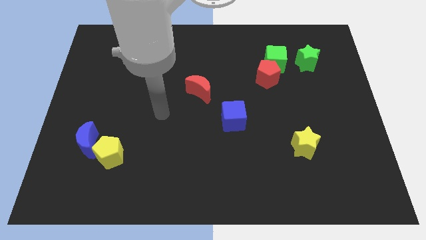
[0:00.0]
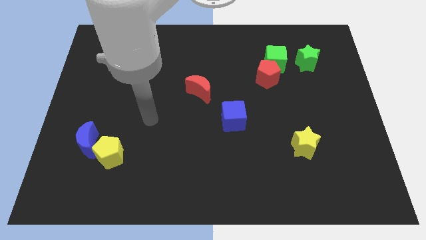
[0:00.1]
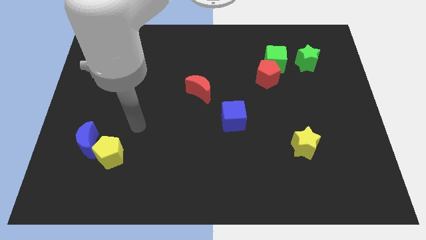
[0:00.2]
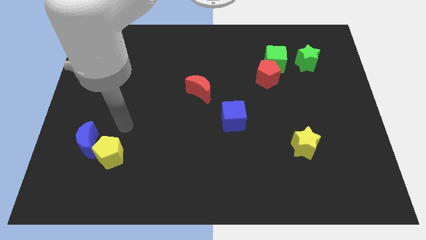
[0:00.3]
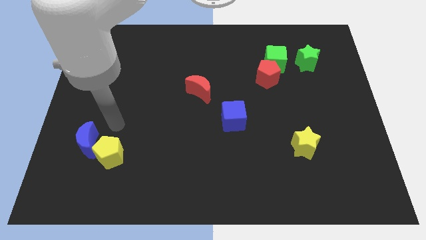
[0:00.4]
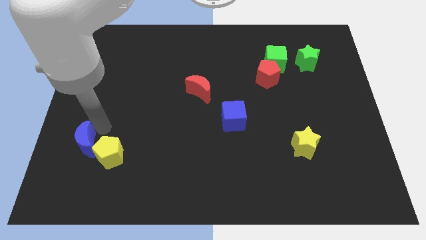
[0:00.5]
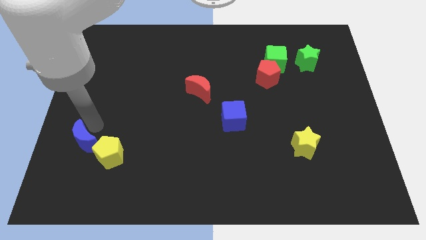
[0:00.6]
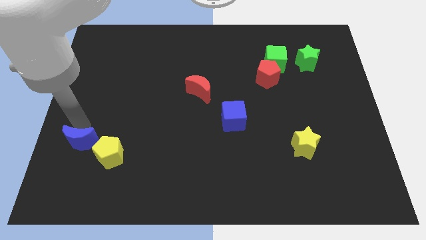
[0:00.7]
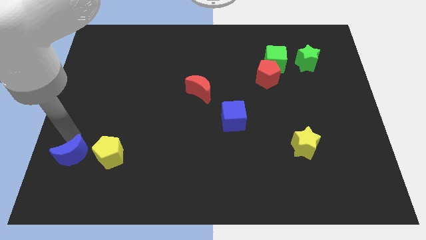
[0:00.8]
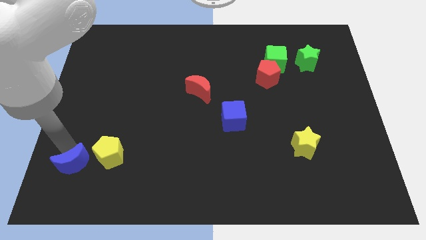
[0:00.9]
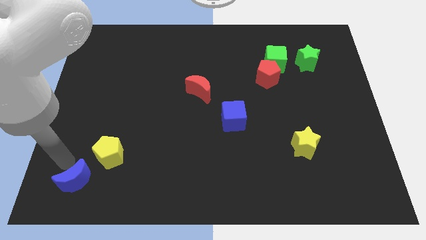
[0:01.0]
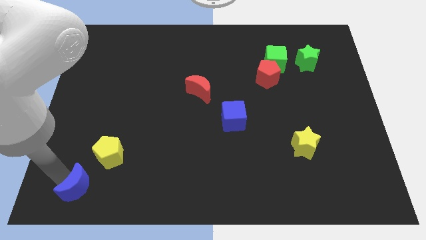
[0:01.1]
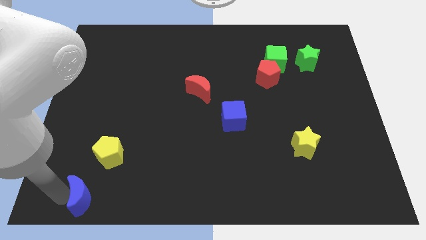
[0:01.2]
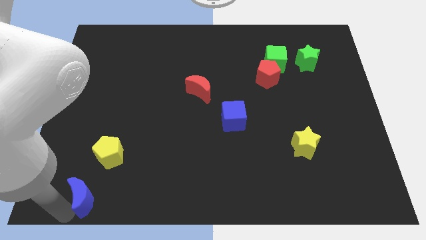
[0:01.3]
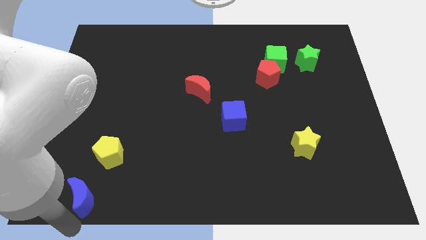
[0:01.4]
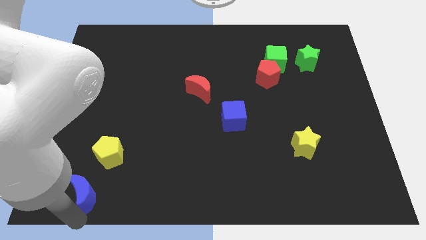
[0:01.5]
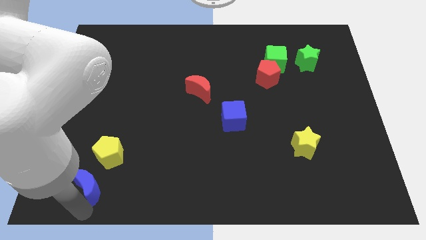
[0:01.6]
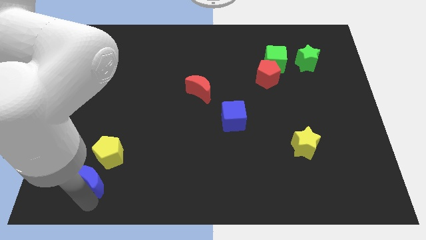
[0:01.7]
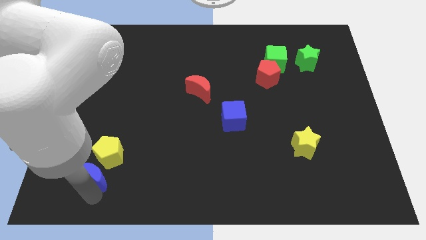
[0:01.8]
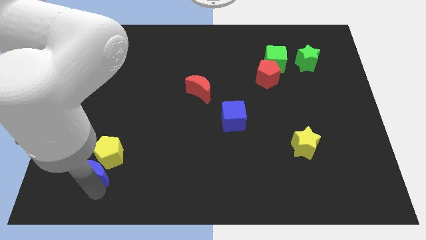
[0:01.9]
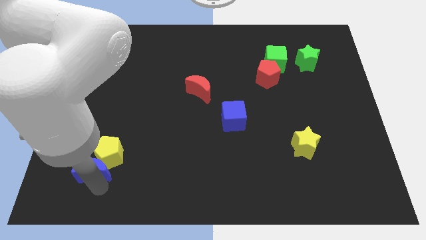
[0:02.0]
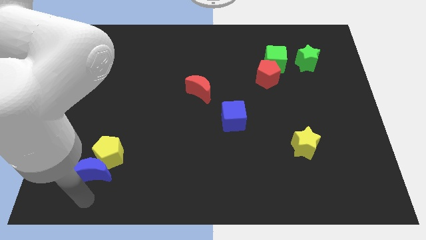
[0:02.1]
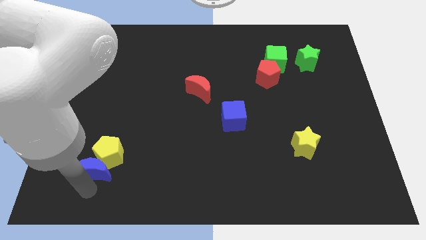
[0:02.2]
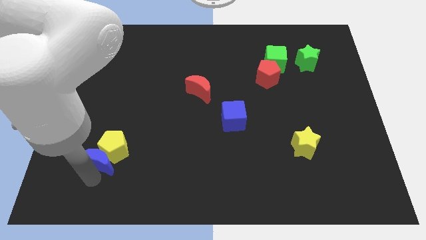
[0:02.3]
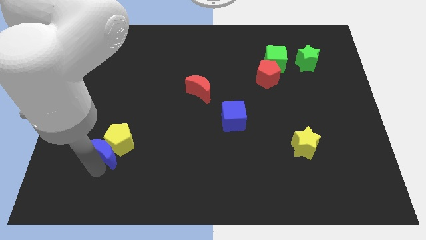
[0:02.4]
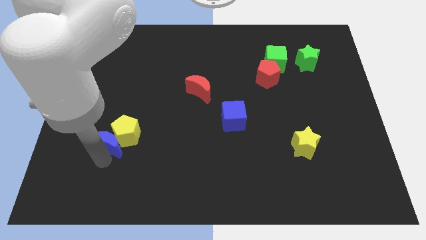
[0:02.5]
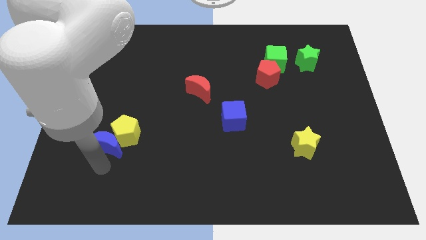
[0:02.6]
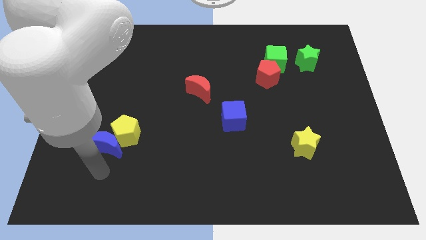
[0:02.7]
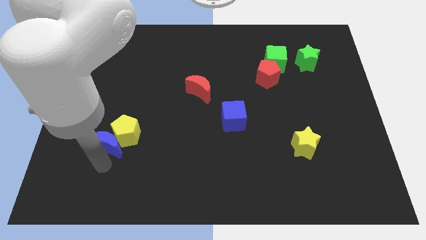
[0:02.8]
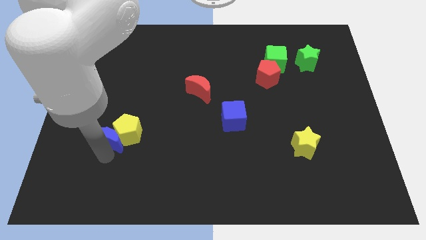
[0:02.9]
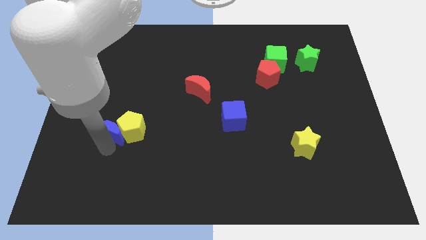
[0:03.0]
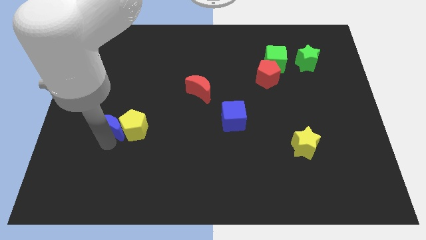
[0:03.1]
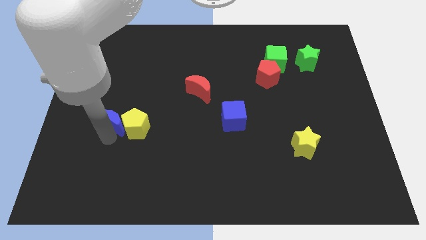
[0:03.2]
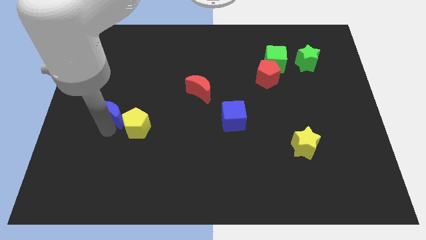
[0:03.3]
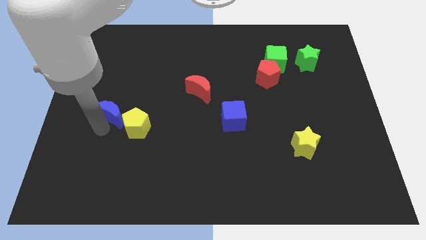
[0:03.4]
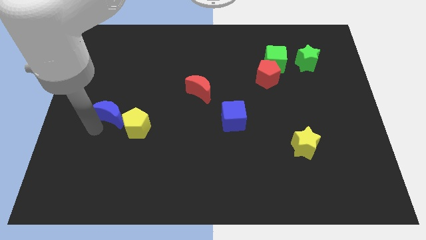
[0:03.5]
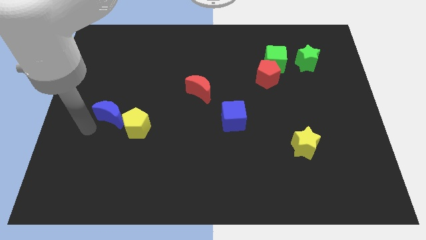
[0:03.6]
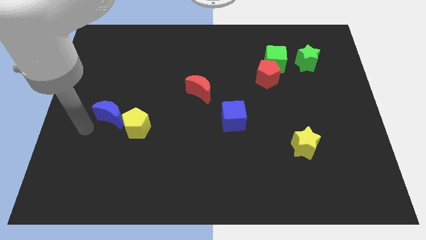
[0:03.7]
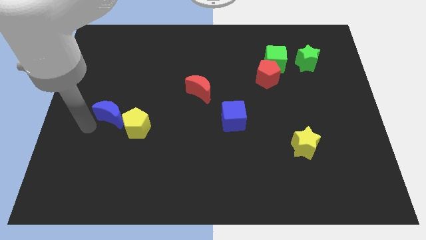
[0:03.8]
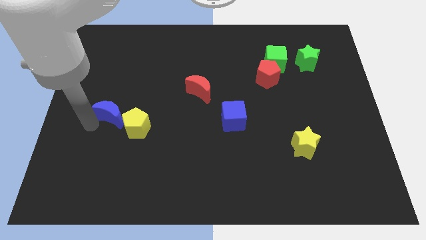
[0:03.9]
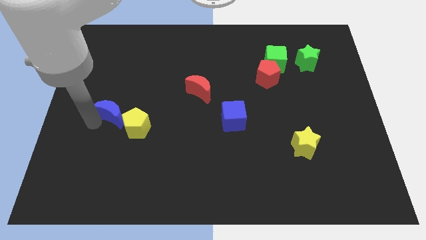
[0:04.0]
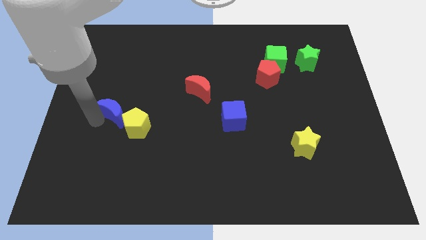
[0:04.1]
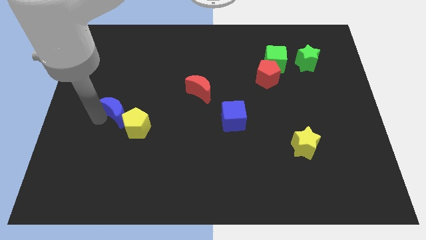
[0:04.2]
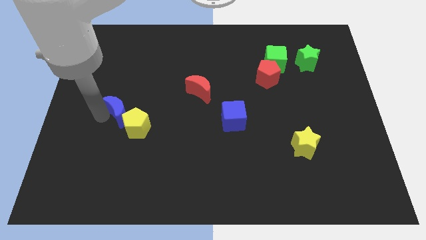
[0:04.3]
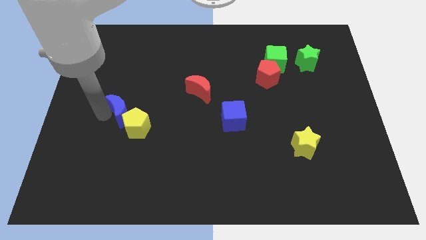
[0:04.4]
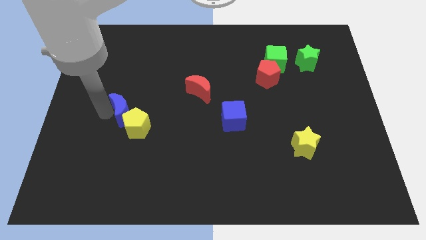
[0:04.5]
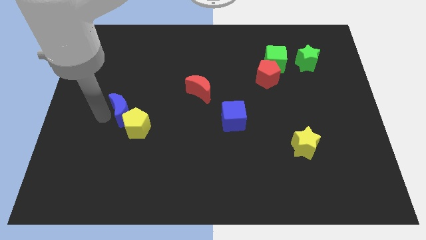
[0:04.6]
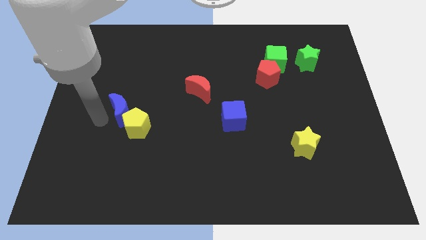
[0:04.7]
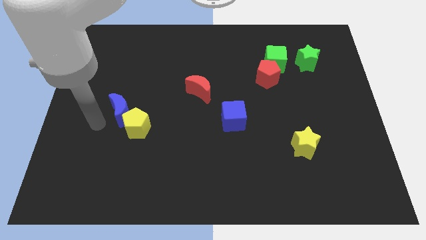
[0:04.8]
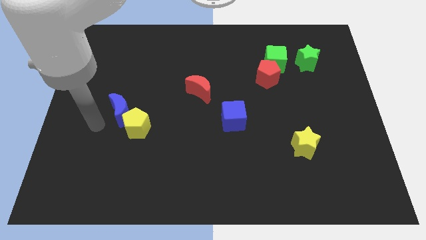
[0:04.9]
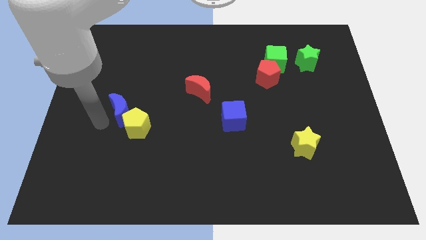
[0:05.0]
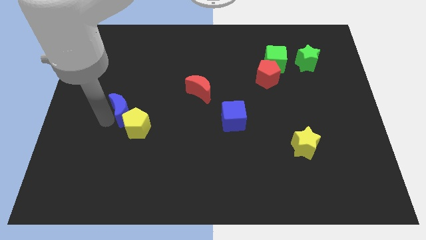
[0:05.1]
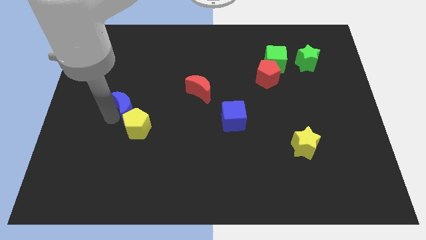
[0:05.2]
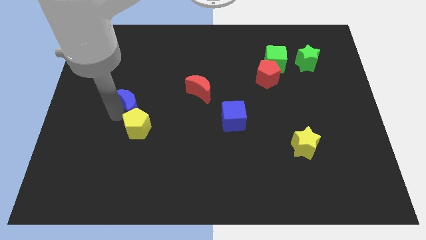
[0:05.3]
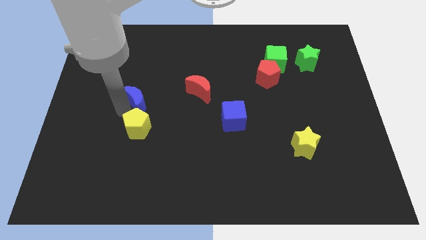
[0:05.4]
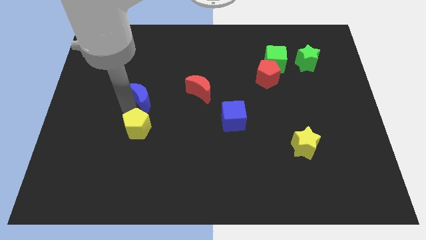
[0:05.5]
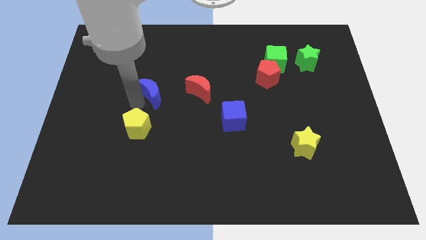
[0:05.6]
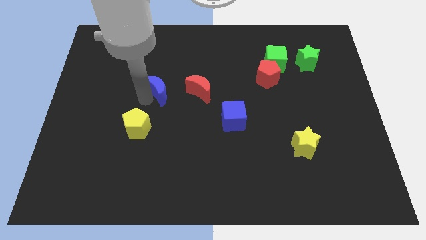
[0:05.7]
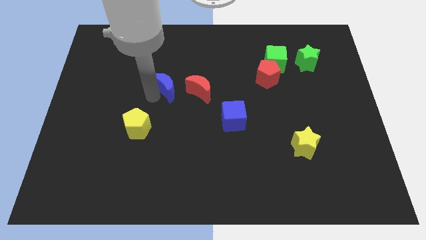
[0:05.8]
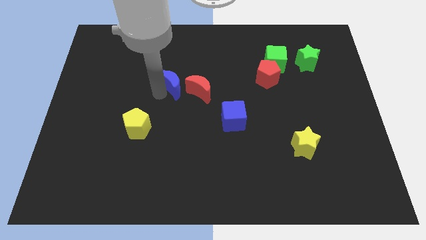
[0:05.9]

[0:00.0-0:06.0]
put the blue moon to the top left side of the red moon

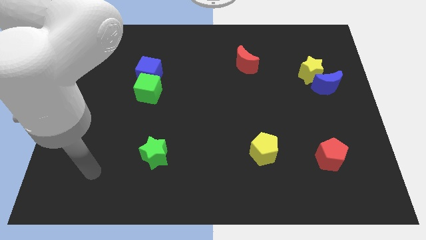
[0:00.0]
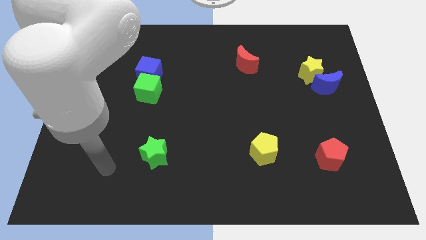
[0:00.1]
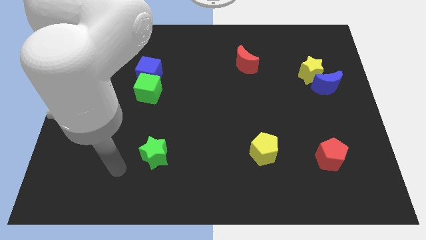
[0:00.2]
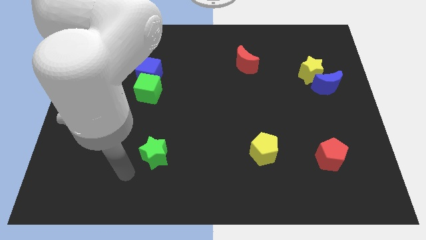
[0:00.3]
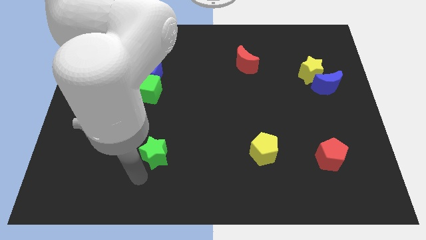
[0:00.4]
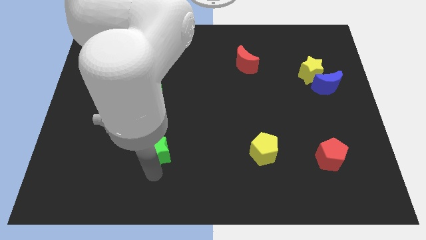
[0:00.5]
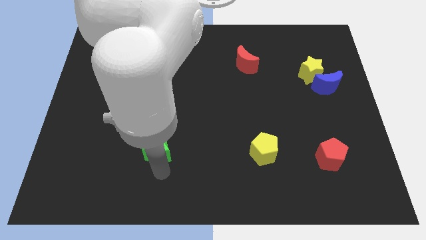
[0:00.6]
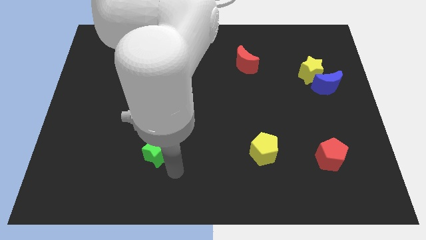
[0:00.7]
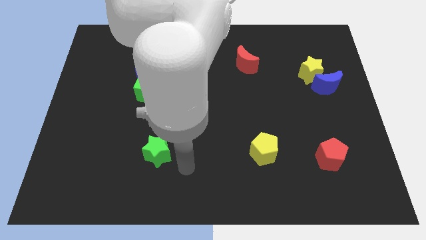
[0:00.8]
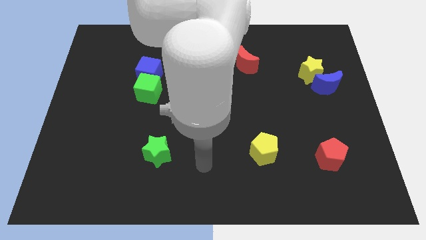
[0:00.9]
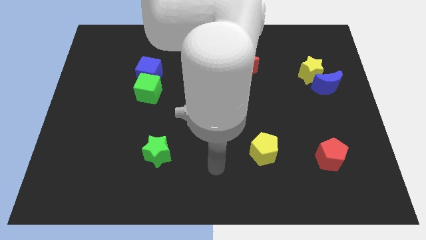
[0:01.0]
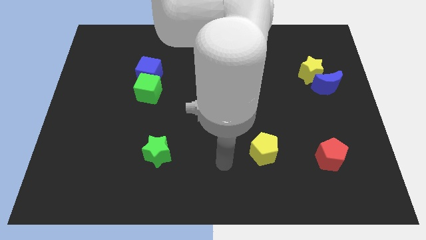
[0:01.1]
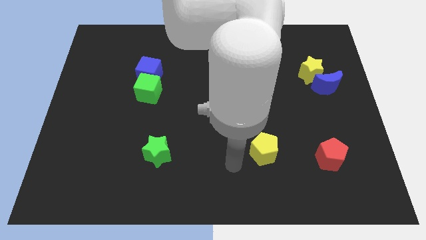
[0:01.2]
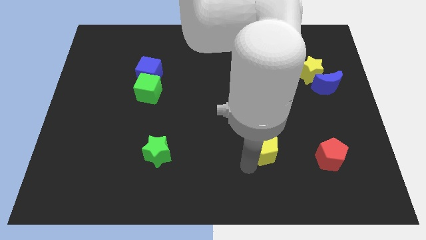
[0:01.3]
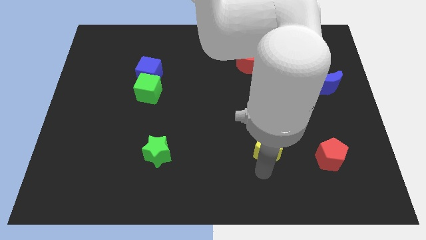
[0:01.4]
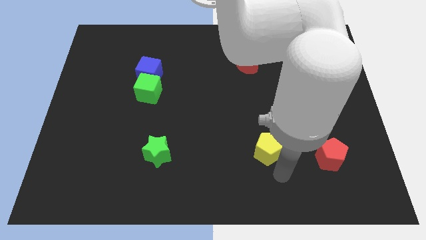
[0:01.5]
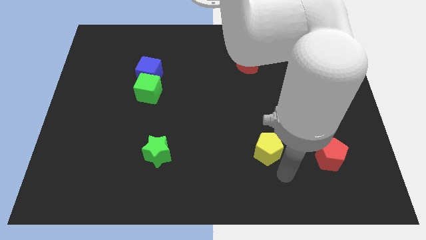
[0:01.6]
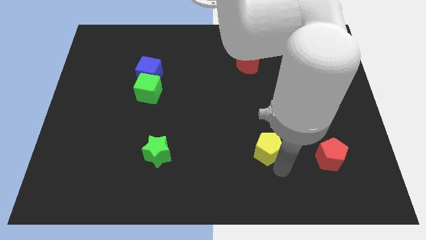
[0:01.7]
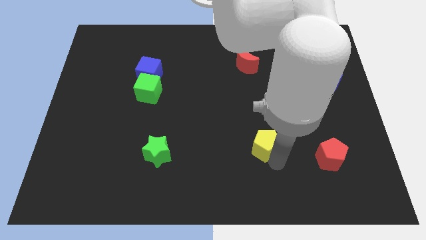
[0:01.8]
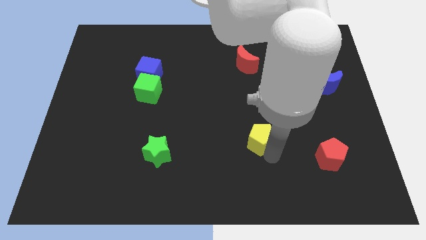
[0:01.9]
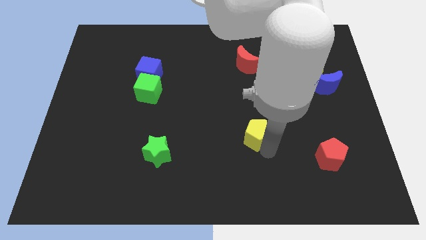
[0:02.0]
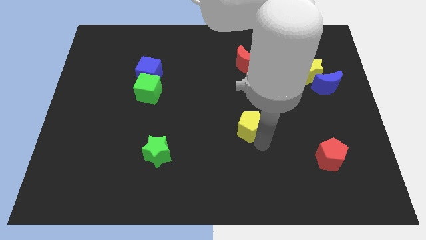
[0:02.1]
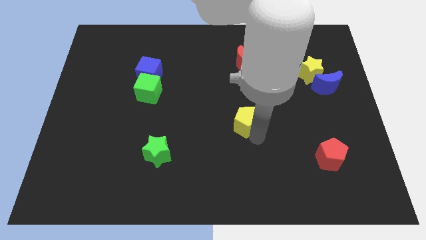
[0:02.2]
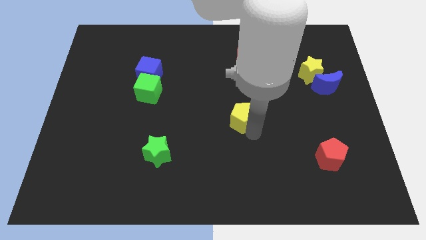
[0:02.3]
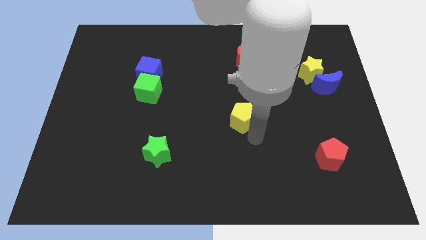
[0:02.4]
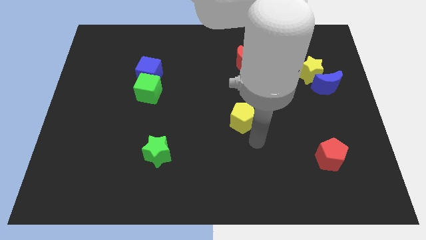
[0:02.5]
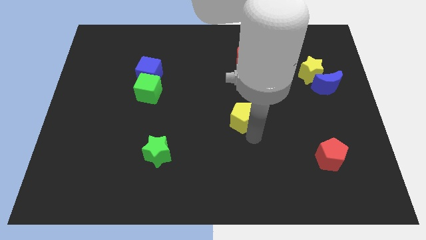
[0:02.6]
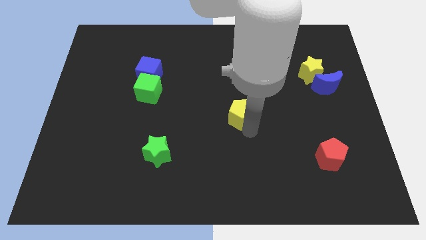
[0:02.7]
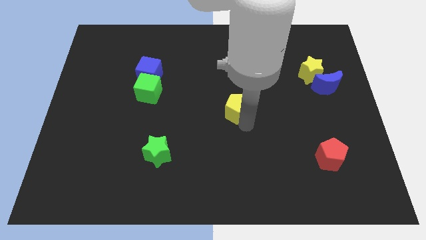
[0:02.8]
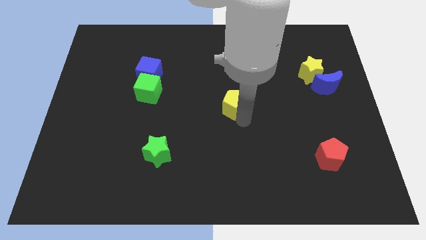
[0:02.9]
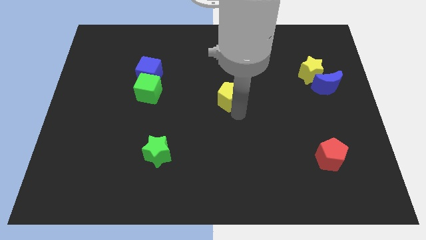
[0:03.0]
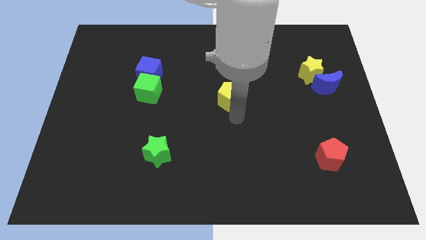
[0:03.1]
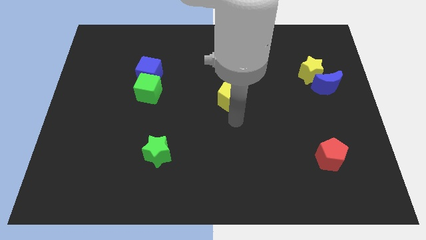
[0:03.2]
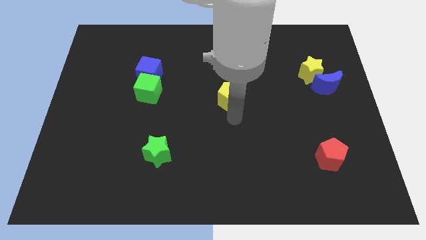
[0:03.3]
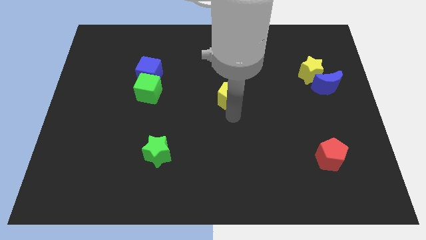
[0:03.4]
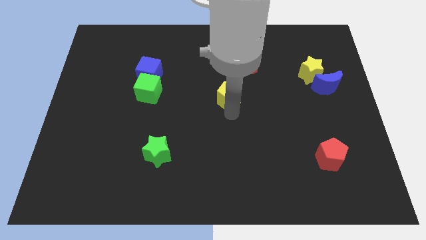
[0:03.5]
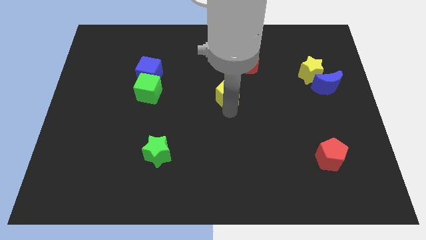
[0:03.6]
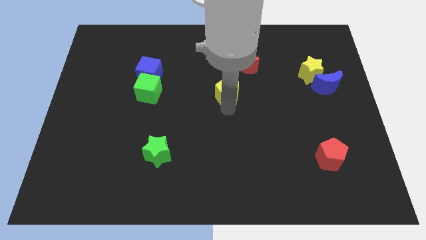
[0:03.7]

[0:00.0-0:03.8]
move the yellow pentagon to the bottom left side of the red moon
